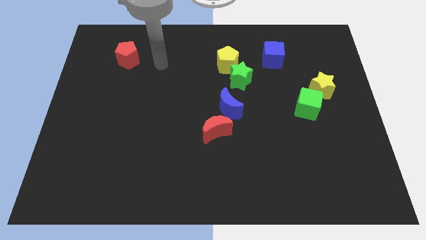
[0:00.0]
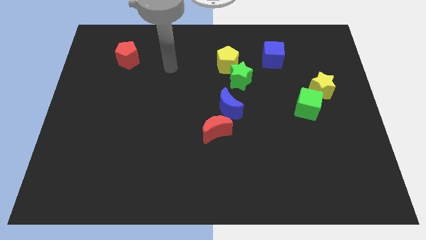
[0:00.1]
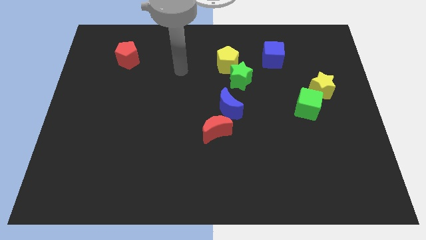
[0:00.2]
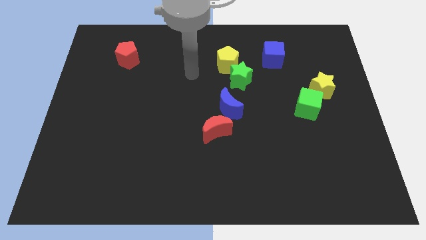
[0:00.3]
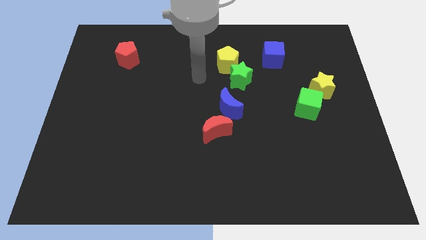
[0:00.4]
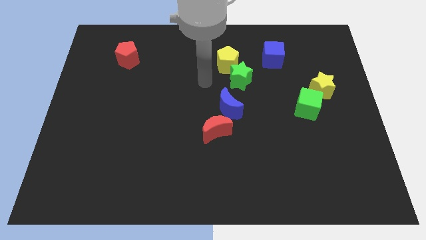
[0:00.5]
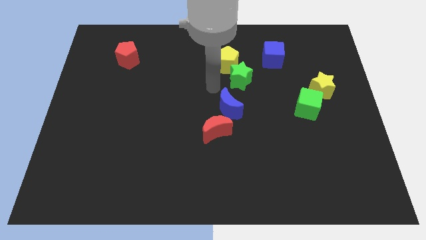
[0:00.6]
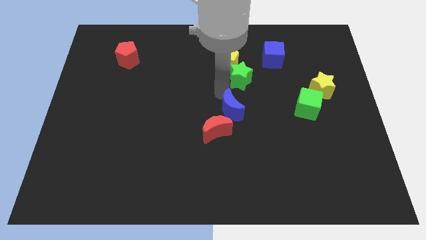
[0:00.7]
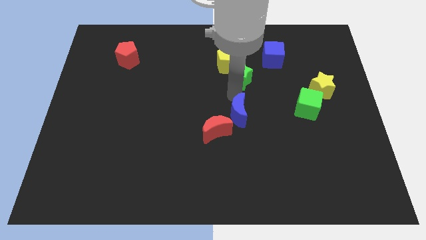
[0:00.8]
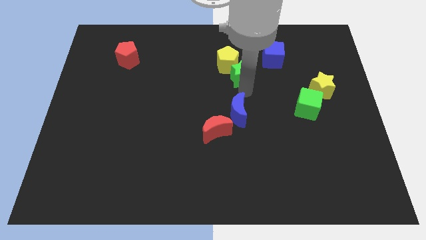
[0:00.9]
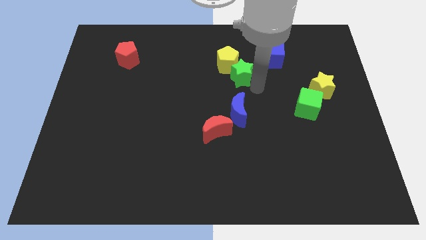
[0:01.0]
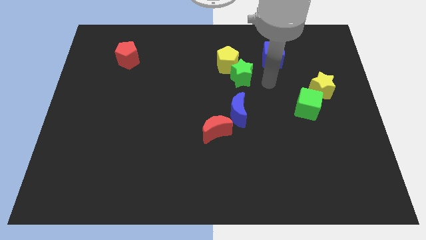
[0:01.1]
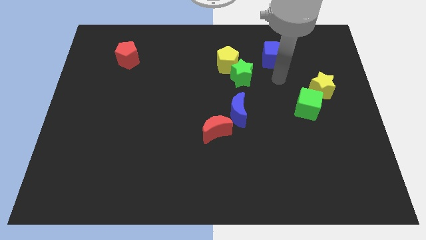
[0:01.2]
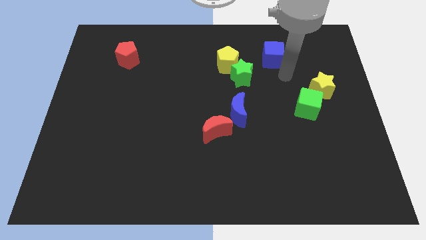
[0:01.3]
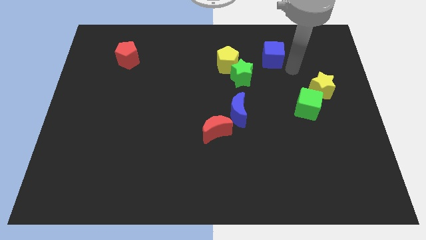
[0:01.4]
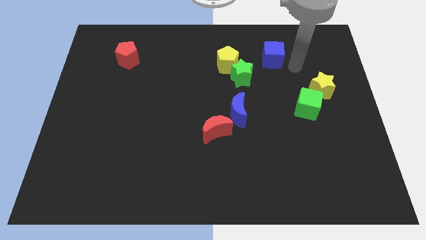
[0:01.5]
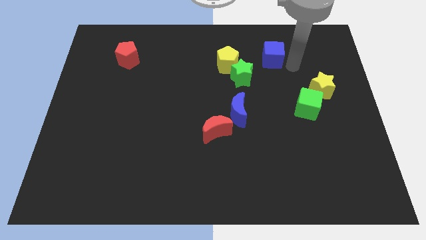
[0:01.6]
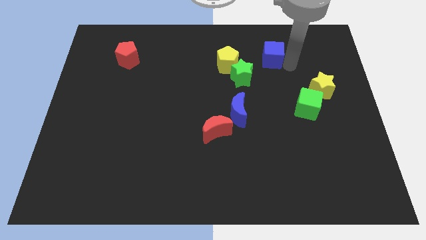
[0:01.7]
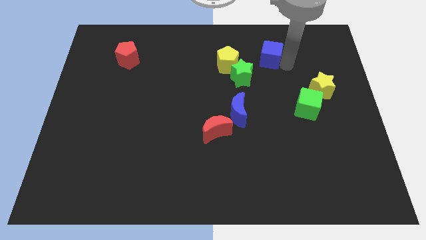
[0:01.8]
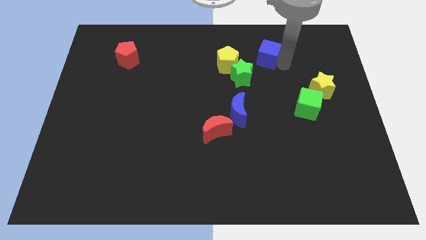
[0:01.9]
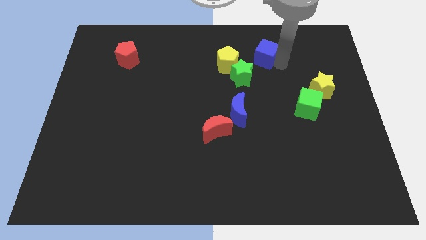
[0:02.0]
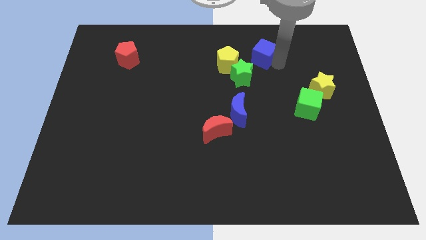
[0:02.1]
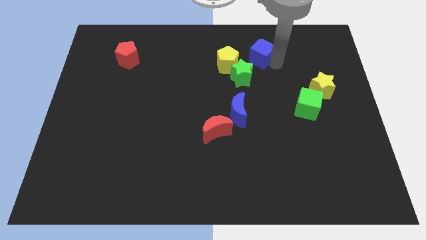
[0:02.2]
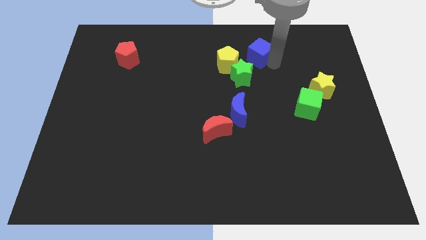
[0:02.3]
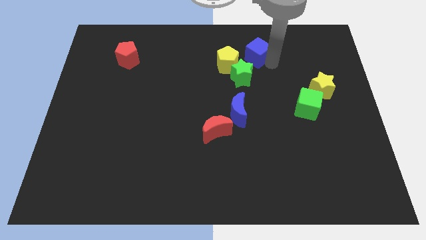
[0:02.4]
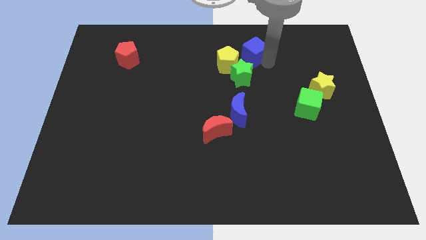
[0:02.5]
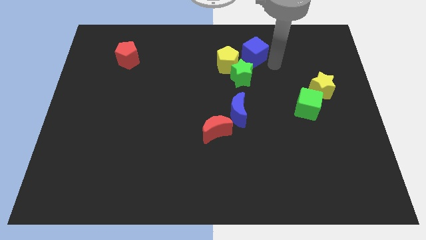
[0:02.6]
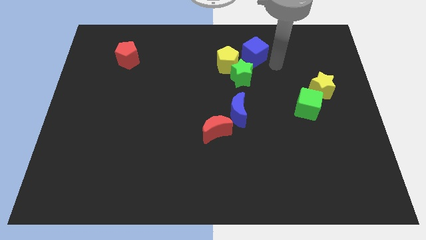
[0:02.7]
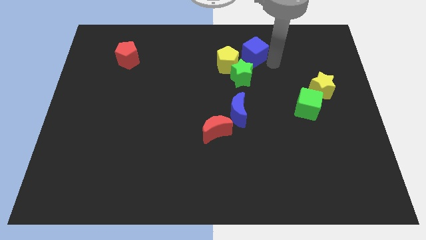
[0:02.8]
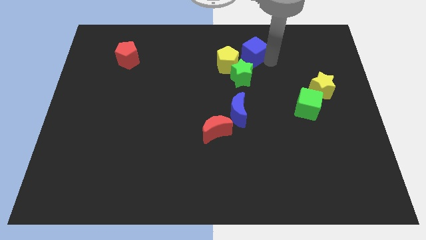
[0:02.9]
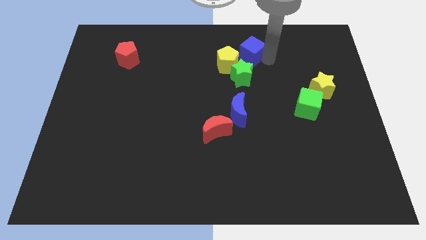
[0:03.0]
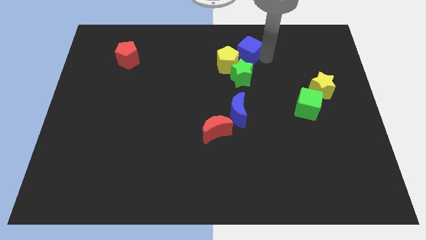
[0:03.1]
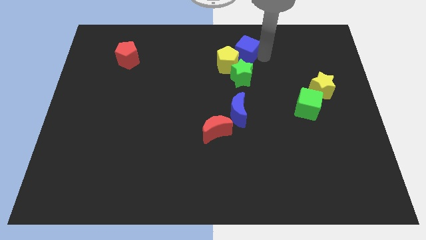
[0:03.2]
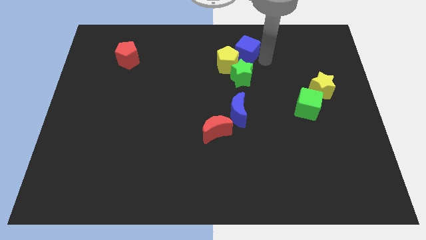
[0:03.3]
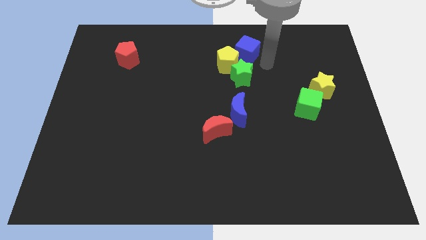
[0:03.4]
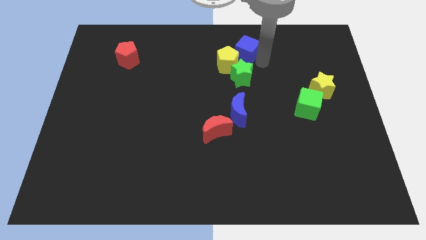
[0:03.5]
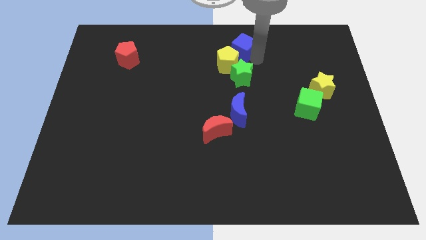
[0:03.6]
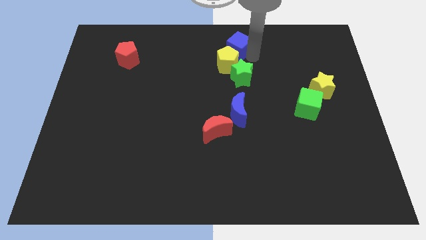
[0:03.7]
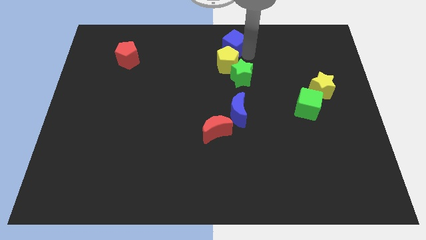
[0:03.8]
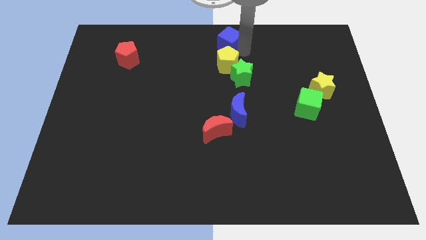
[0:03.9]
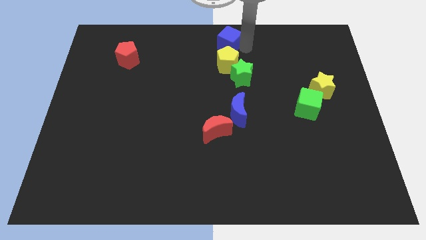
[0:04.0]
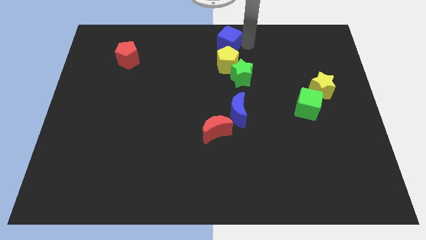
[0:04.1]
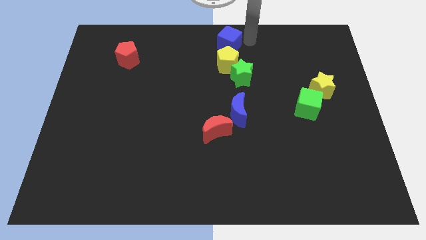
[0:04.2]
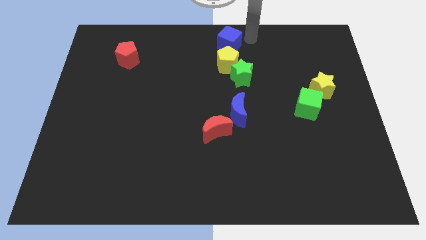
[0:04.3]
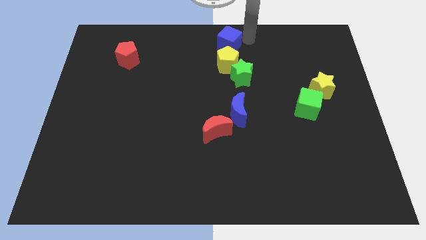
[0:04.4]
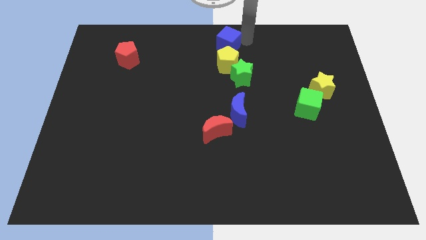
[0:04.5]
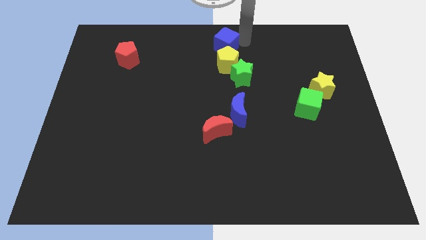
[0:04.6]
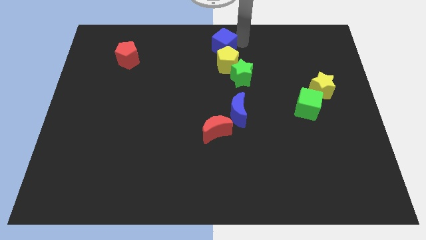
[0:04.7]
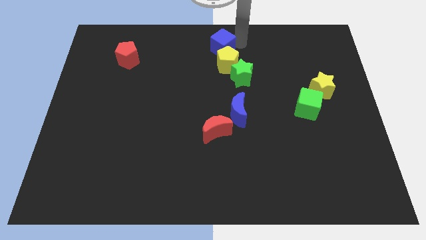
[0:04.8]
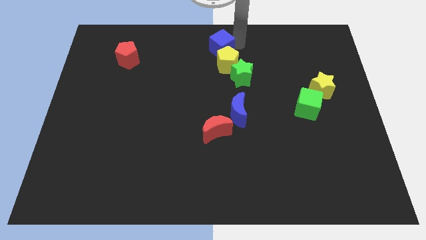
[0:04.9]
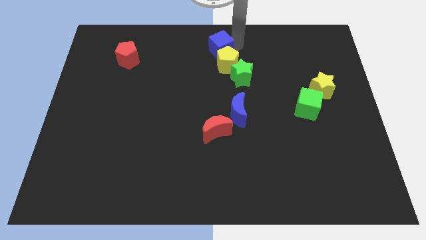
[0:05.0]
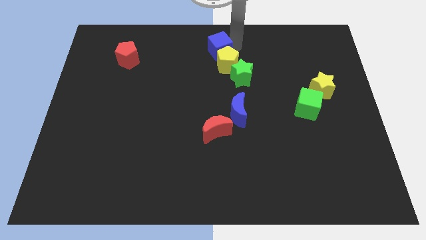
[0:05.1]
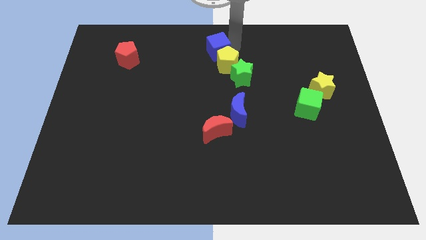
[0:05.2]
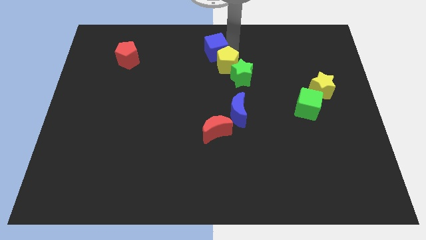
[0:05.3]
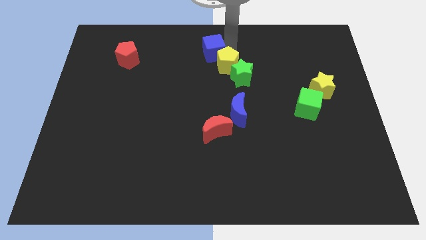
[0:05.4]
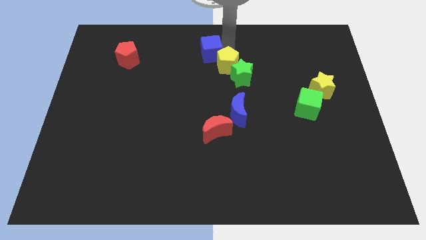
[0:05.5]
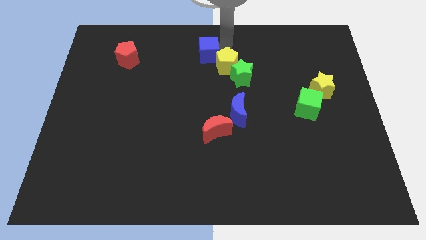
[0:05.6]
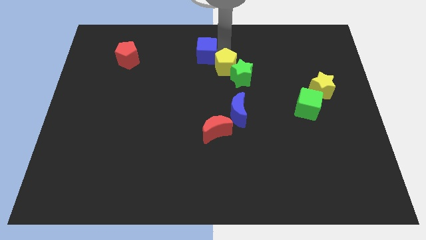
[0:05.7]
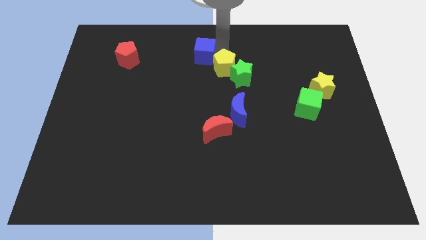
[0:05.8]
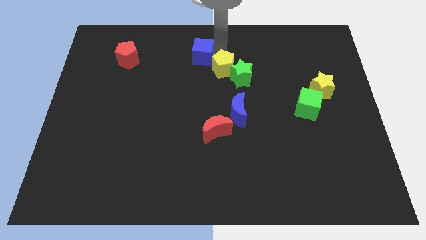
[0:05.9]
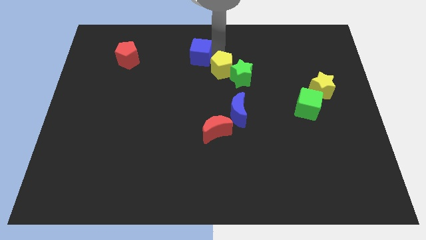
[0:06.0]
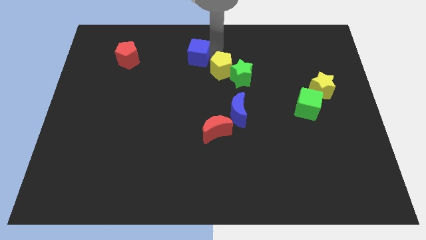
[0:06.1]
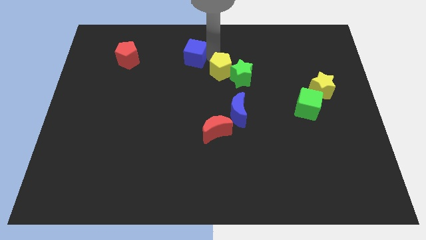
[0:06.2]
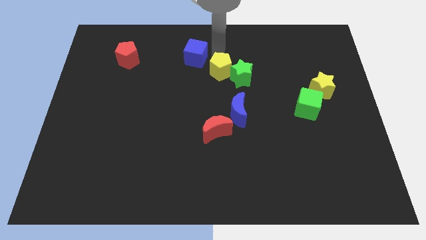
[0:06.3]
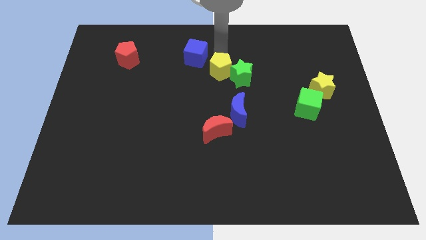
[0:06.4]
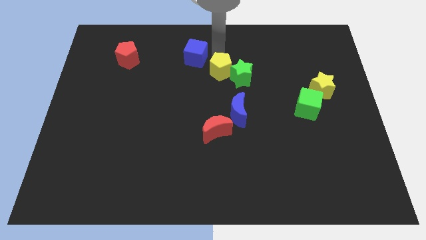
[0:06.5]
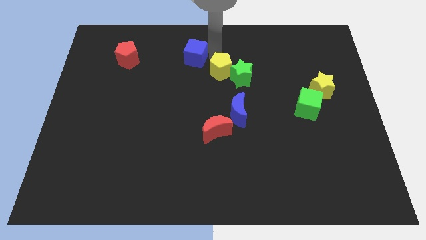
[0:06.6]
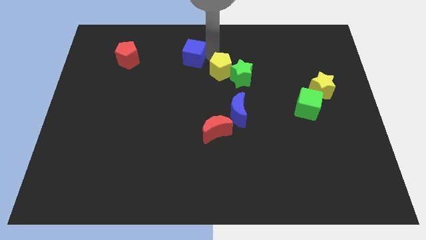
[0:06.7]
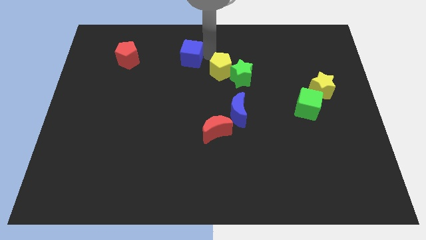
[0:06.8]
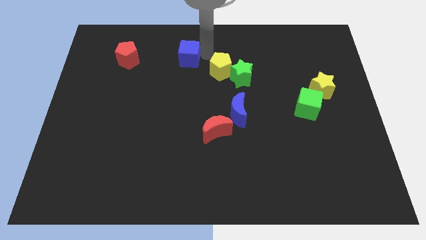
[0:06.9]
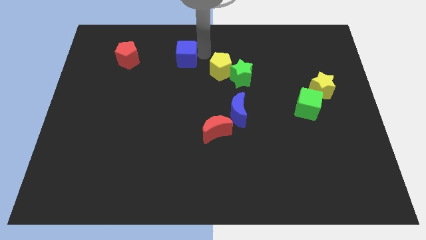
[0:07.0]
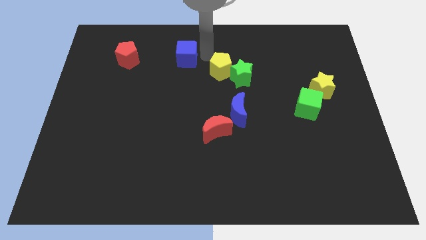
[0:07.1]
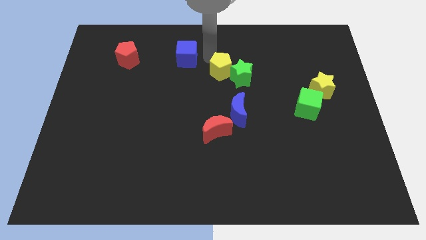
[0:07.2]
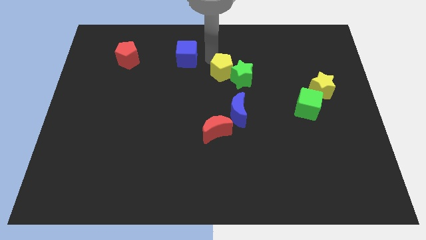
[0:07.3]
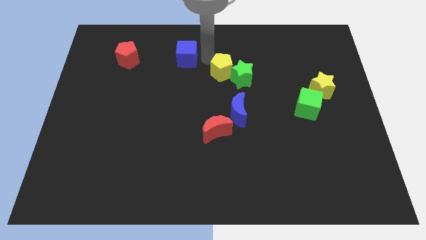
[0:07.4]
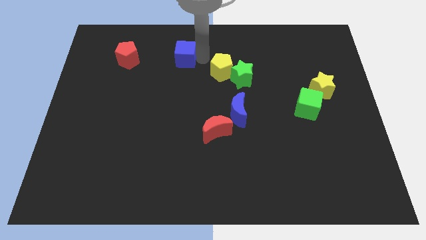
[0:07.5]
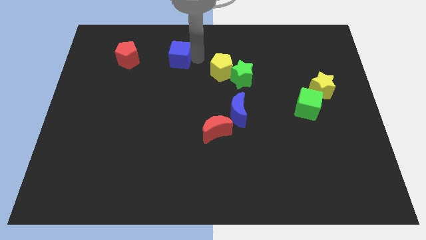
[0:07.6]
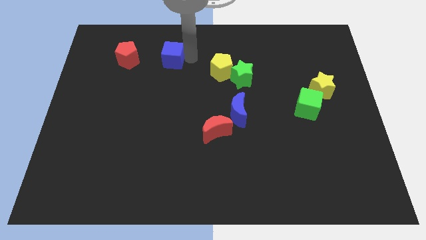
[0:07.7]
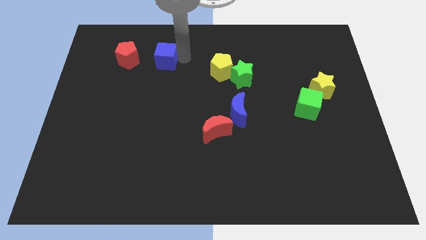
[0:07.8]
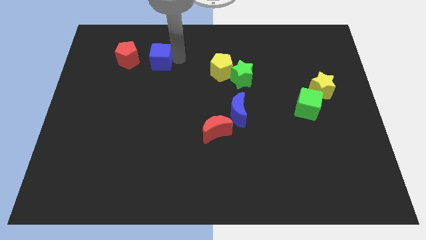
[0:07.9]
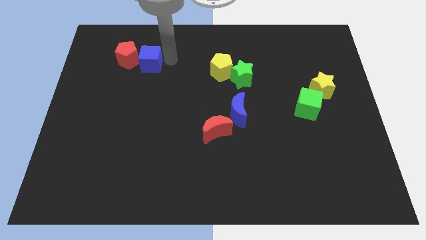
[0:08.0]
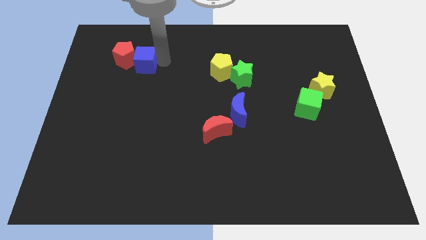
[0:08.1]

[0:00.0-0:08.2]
push the blue cube close to the red pentagon
